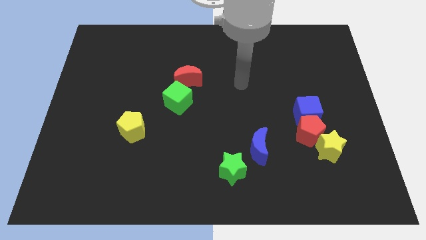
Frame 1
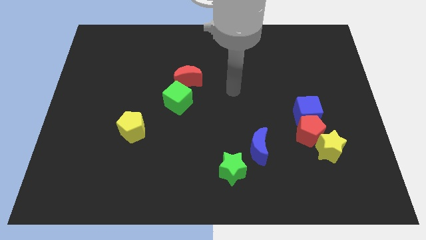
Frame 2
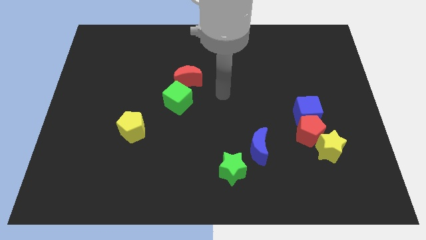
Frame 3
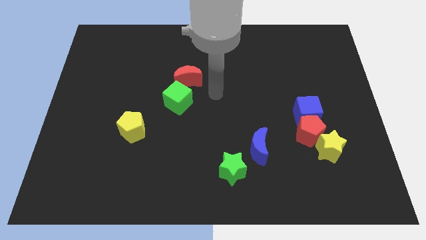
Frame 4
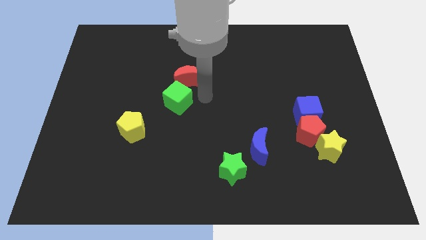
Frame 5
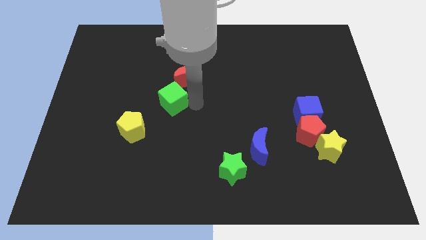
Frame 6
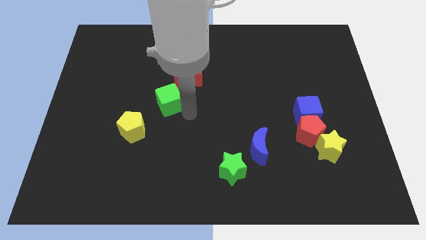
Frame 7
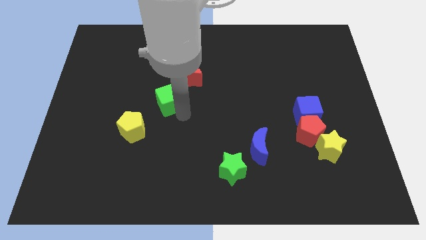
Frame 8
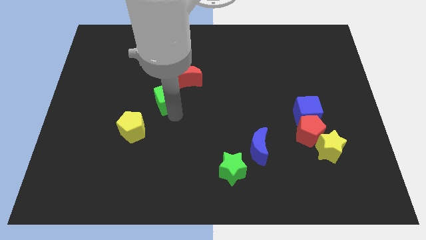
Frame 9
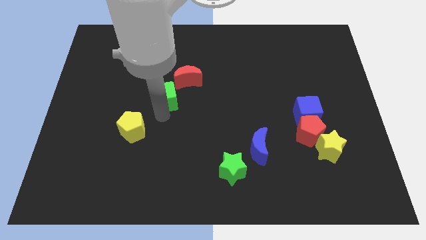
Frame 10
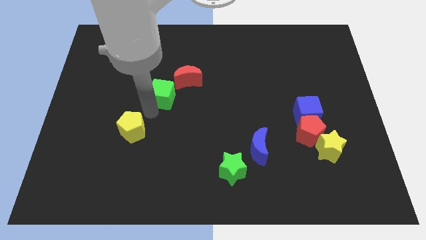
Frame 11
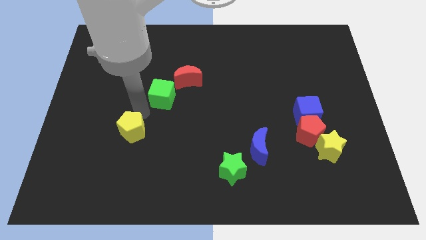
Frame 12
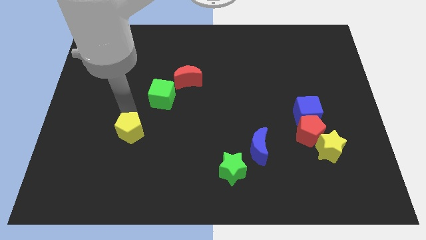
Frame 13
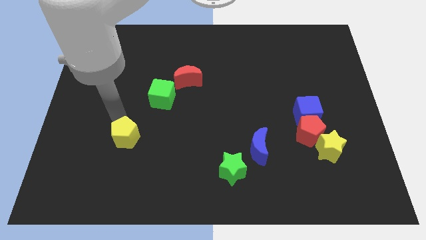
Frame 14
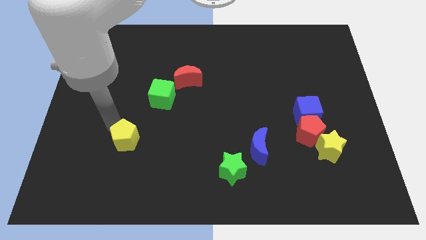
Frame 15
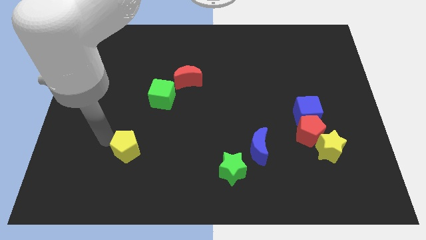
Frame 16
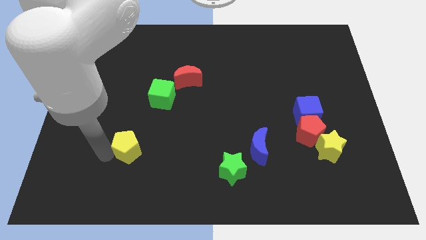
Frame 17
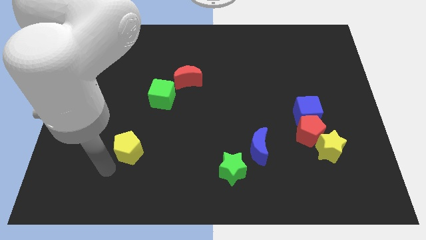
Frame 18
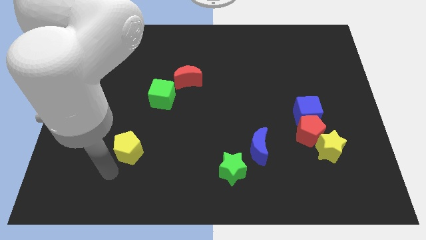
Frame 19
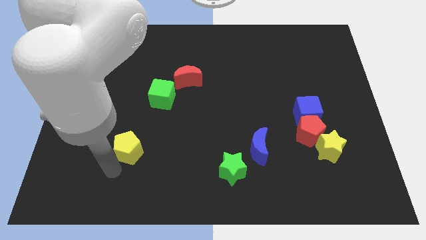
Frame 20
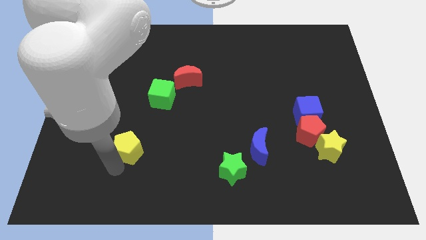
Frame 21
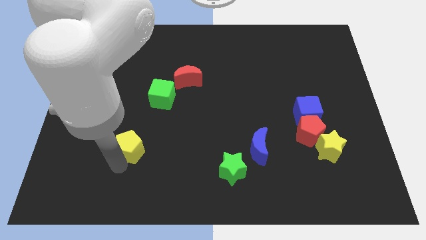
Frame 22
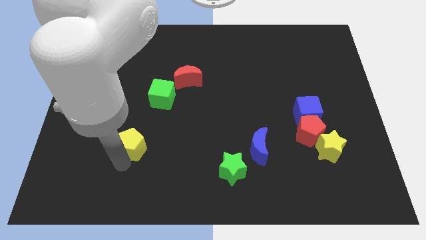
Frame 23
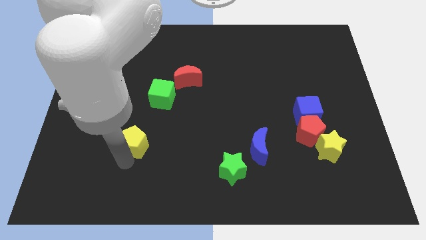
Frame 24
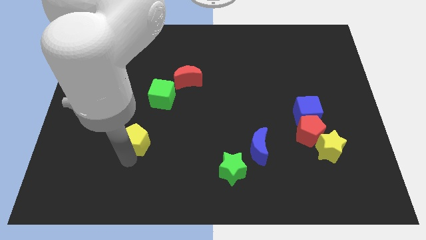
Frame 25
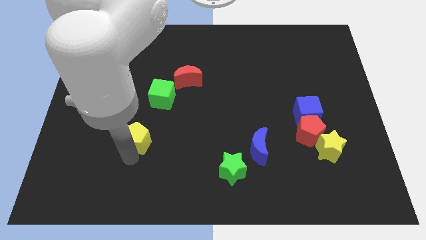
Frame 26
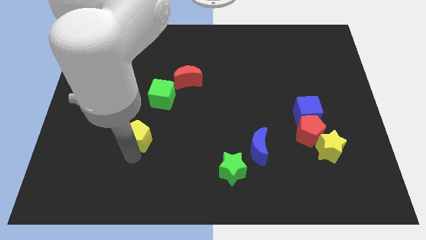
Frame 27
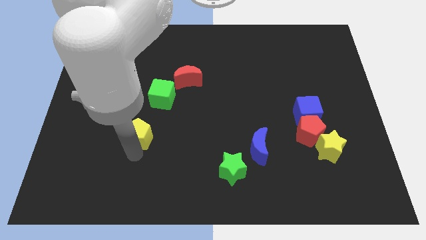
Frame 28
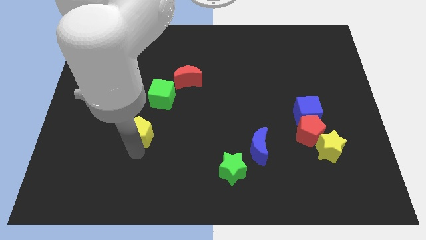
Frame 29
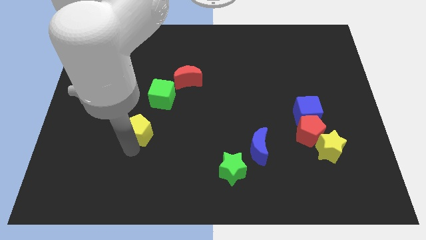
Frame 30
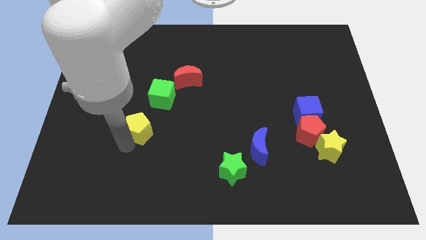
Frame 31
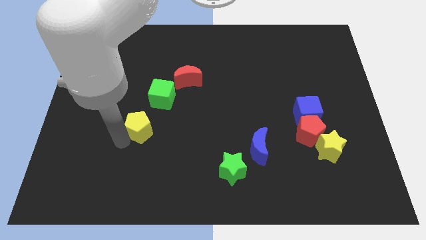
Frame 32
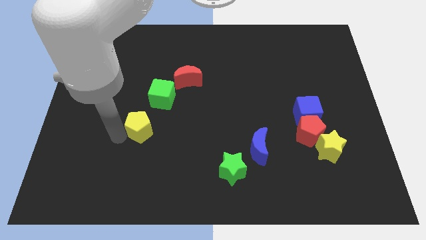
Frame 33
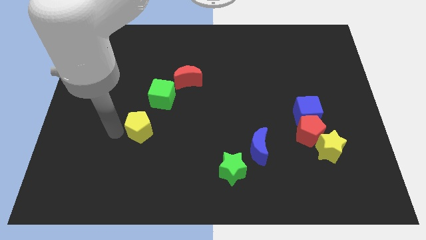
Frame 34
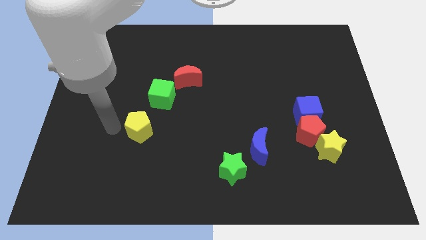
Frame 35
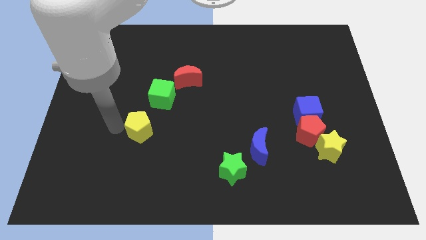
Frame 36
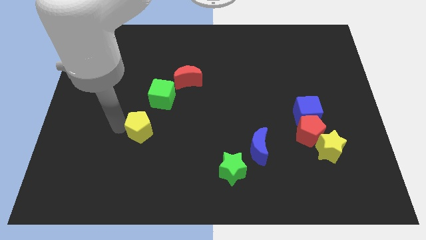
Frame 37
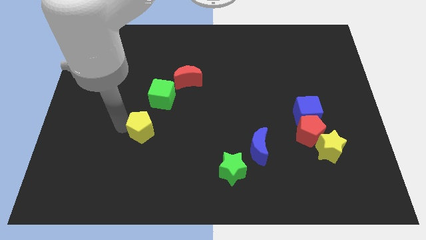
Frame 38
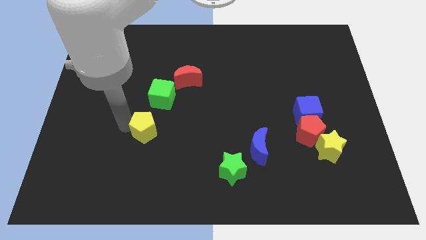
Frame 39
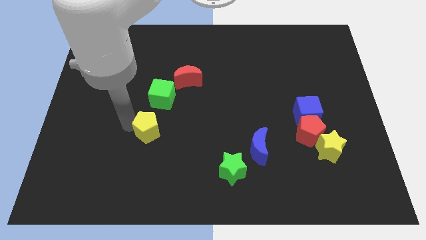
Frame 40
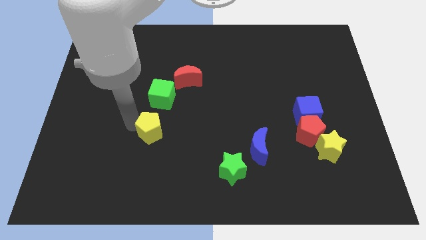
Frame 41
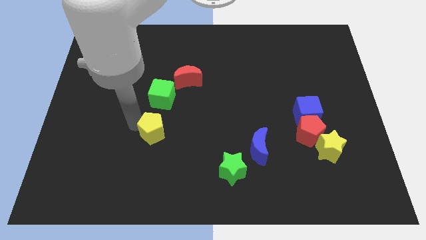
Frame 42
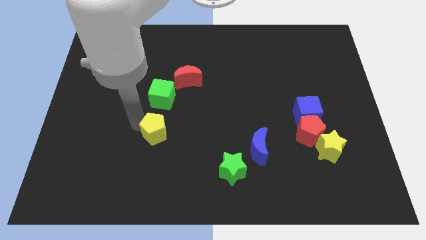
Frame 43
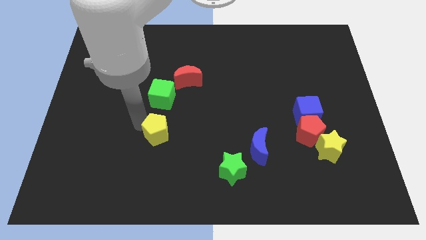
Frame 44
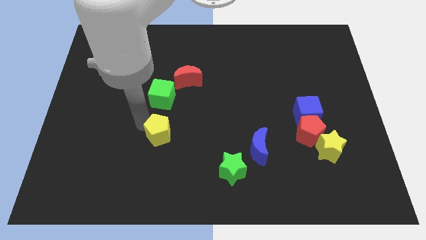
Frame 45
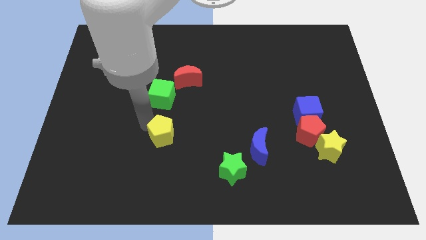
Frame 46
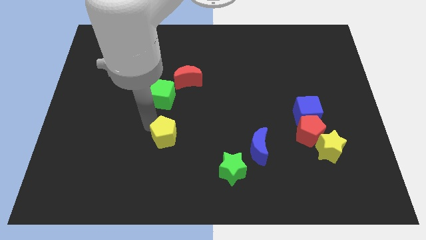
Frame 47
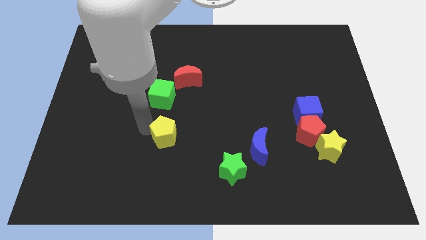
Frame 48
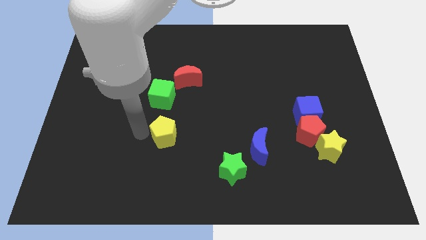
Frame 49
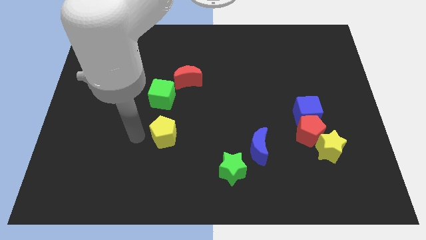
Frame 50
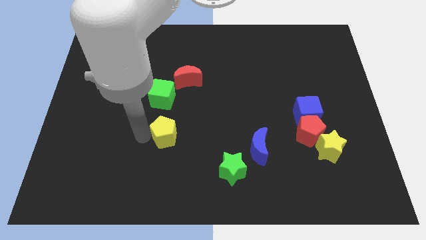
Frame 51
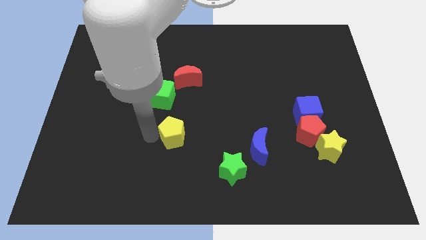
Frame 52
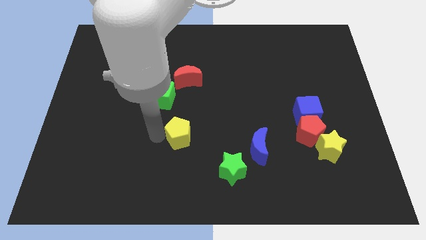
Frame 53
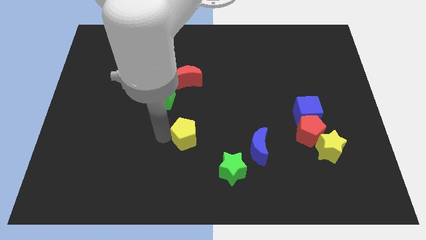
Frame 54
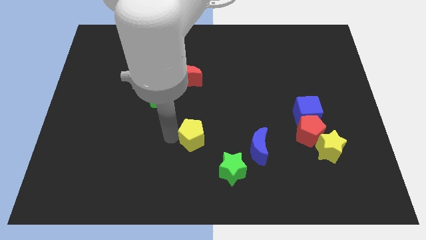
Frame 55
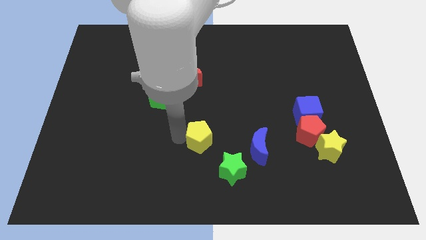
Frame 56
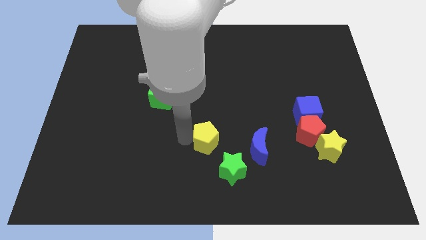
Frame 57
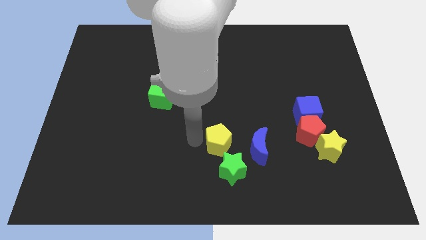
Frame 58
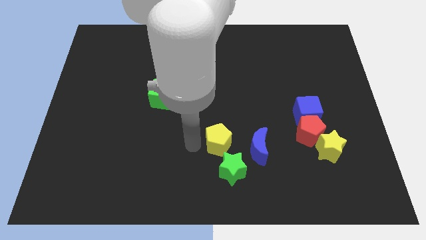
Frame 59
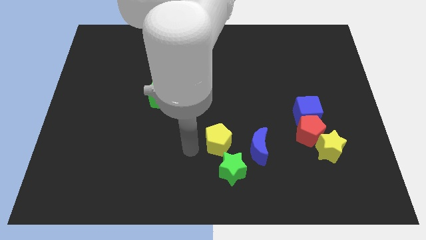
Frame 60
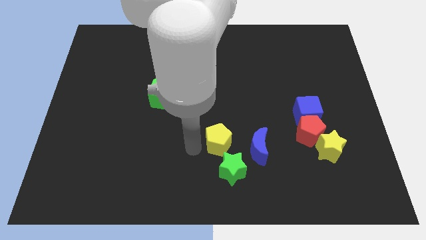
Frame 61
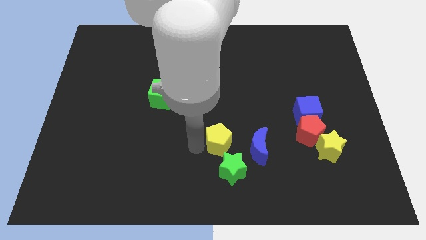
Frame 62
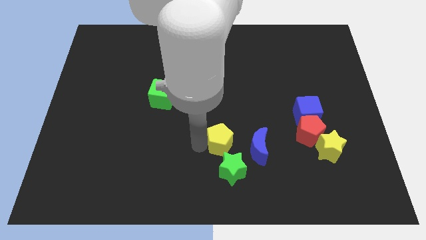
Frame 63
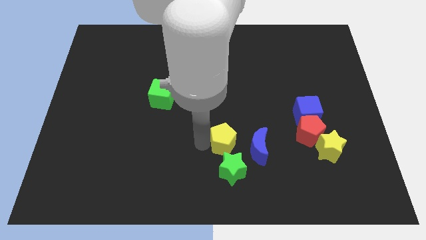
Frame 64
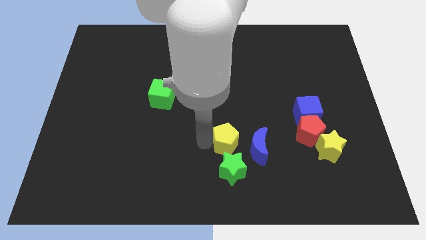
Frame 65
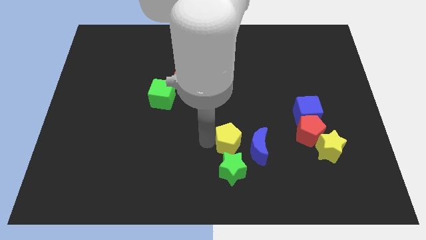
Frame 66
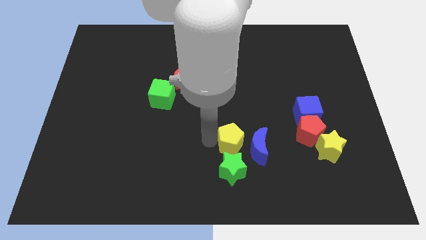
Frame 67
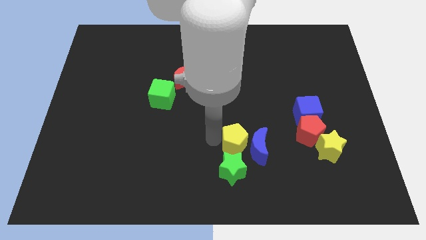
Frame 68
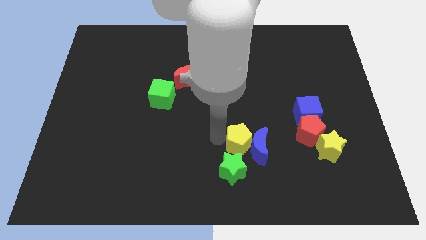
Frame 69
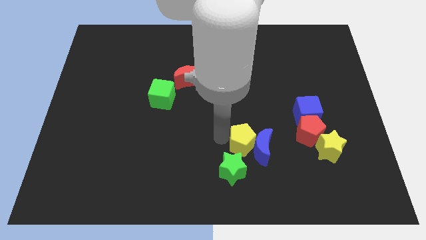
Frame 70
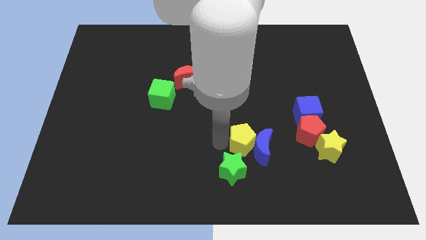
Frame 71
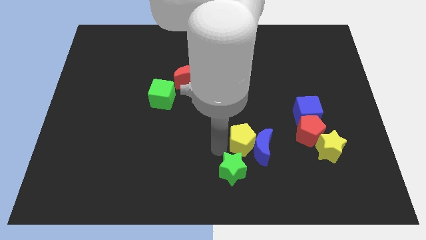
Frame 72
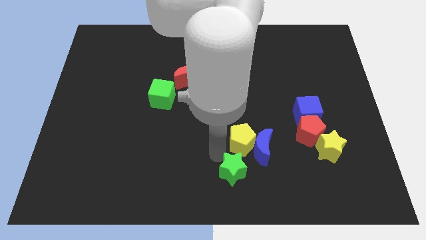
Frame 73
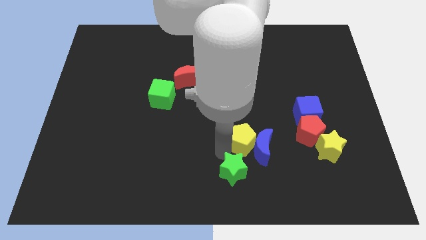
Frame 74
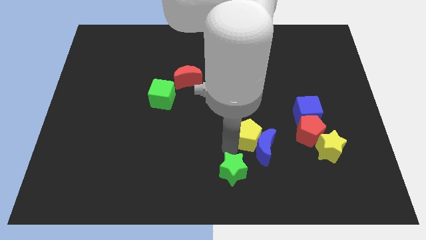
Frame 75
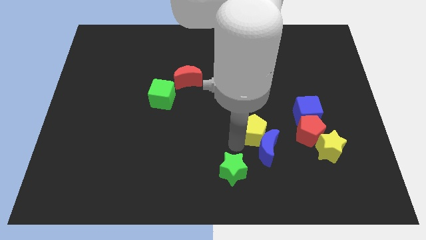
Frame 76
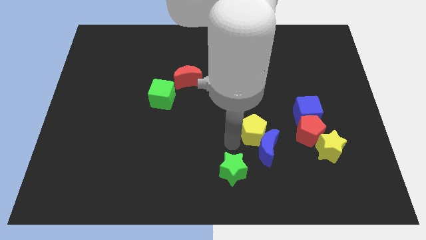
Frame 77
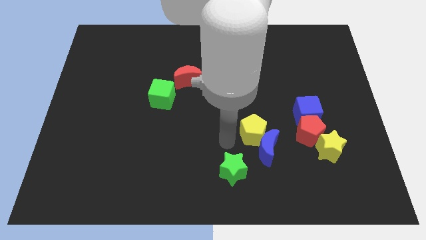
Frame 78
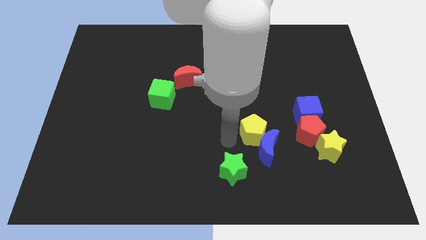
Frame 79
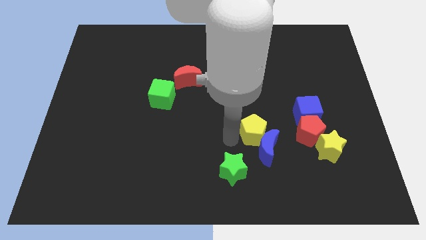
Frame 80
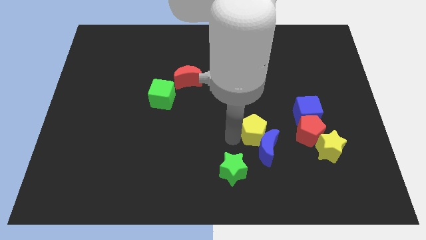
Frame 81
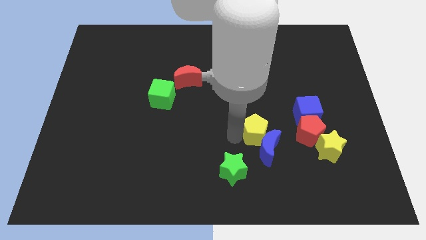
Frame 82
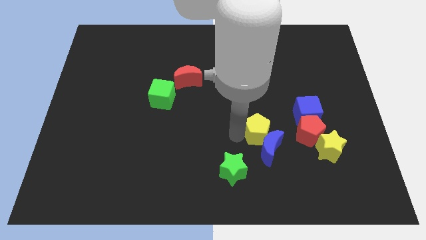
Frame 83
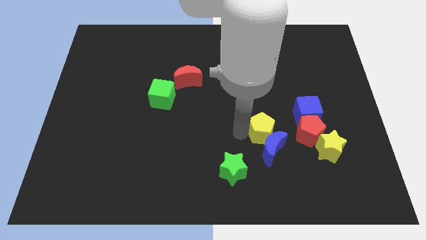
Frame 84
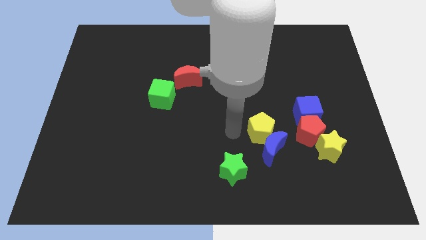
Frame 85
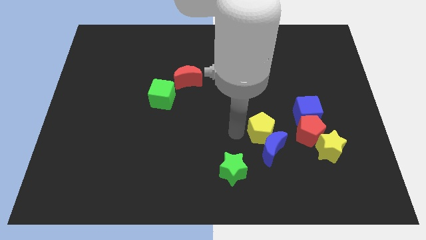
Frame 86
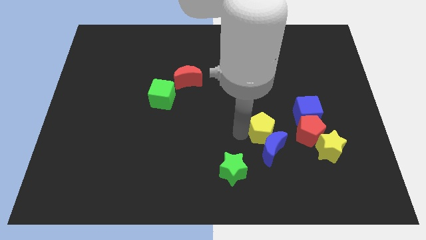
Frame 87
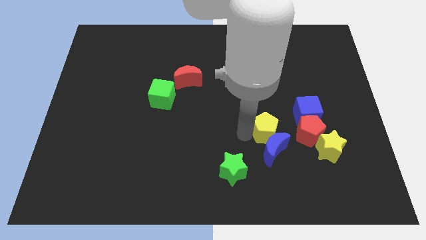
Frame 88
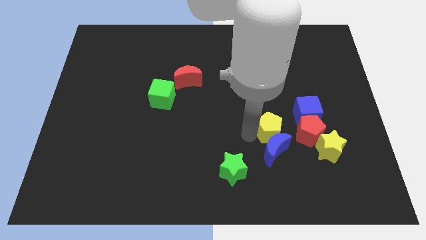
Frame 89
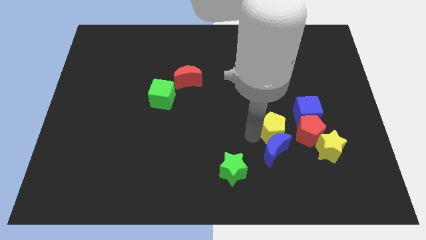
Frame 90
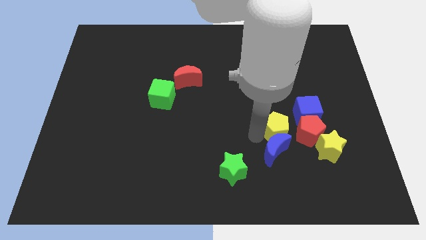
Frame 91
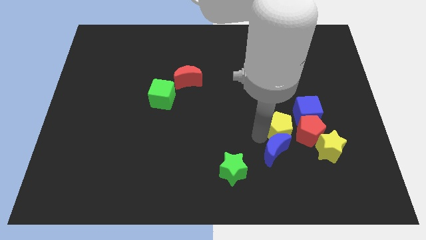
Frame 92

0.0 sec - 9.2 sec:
push the yellow pentagon to the top left of the yellow star
